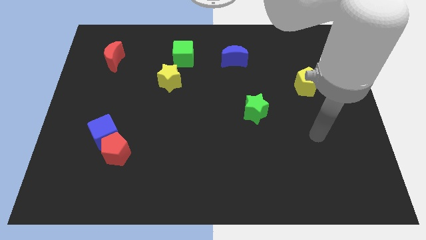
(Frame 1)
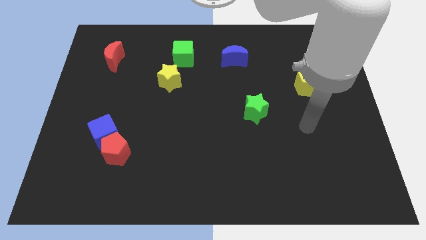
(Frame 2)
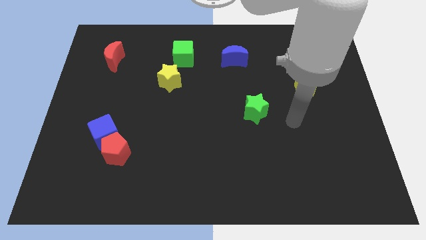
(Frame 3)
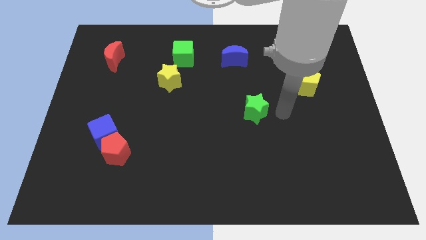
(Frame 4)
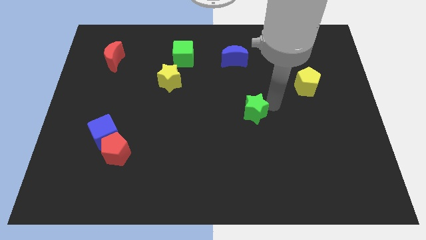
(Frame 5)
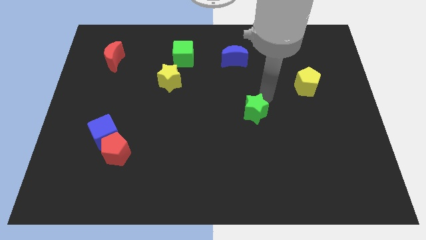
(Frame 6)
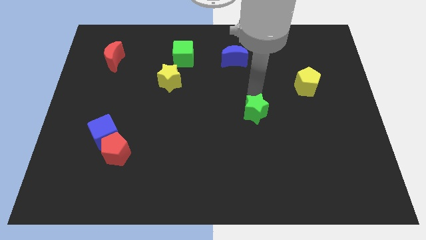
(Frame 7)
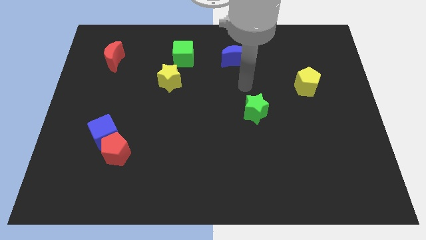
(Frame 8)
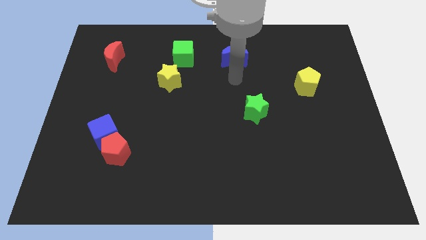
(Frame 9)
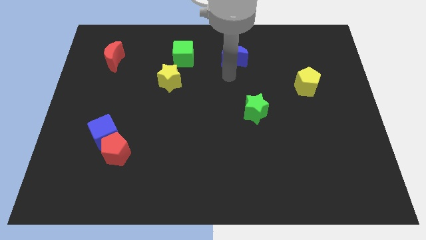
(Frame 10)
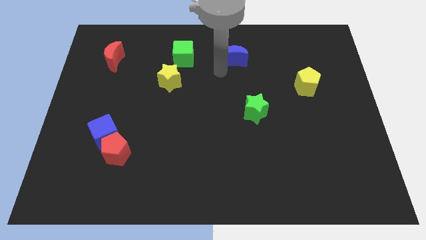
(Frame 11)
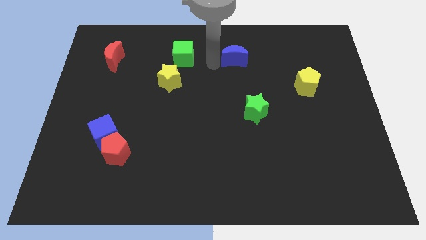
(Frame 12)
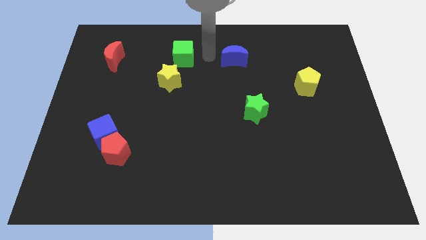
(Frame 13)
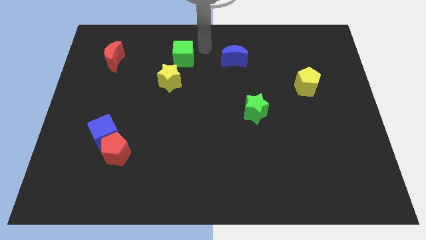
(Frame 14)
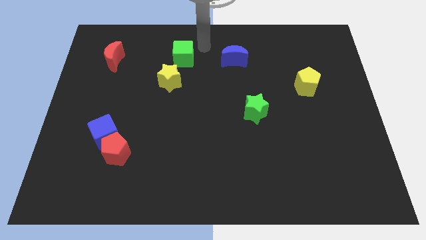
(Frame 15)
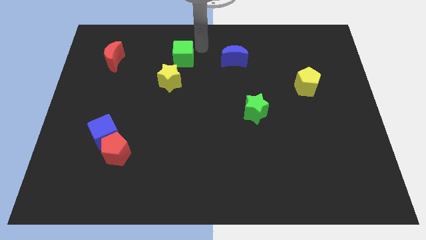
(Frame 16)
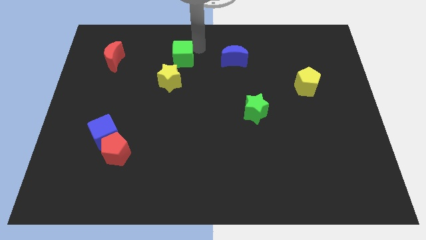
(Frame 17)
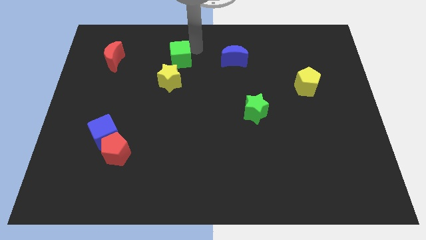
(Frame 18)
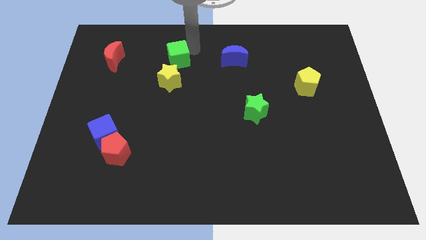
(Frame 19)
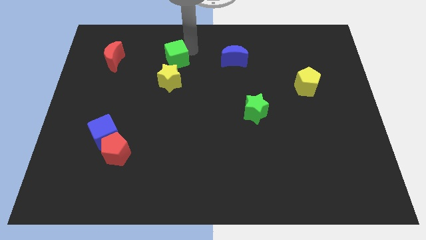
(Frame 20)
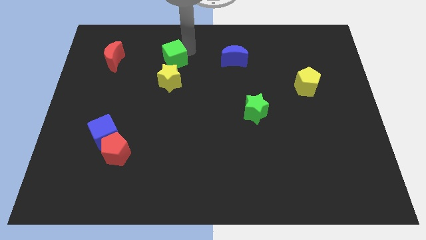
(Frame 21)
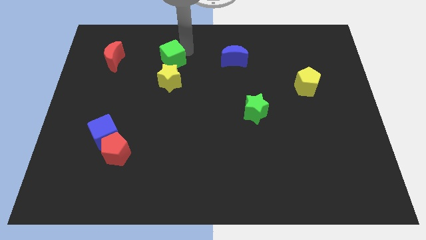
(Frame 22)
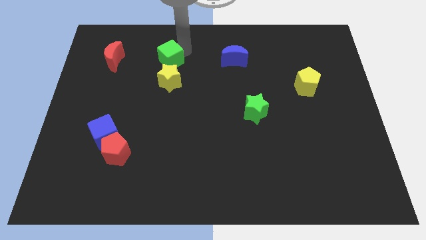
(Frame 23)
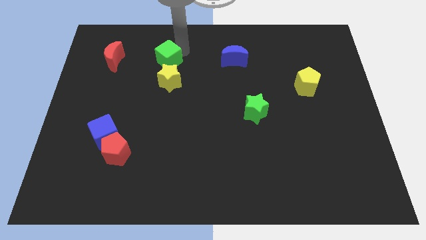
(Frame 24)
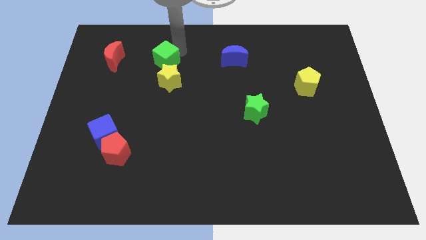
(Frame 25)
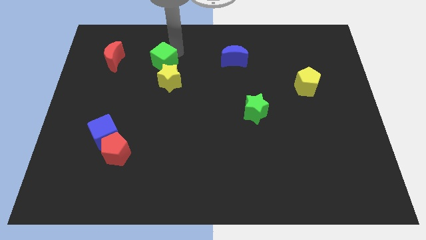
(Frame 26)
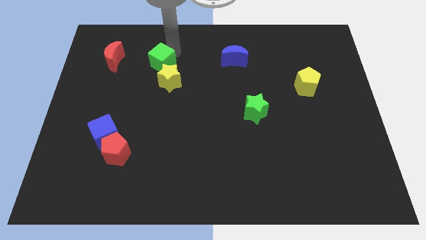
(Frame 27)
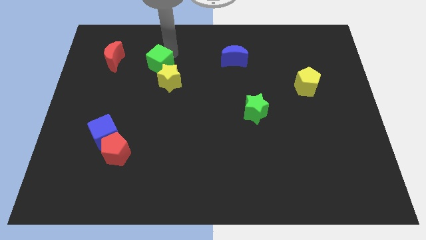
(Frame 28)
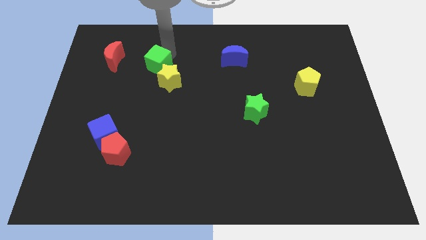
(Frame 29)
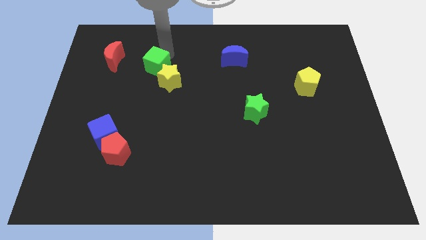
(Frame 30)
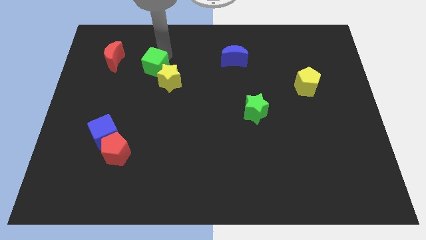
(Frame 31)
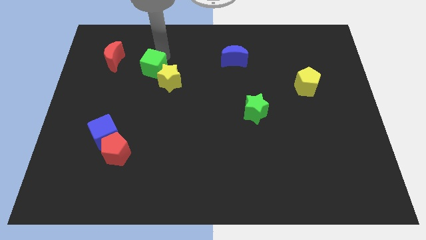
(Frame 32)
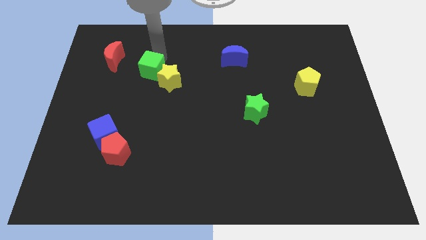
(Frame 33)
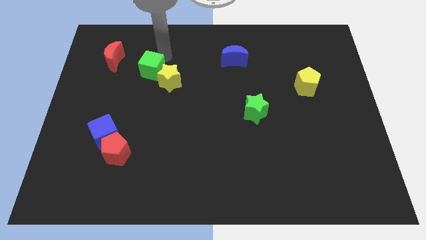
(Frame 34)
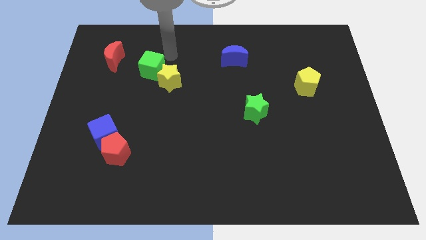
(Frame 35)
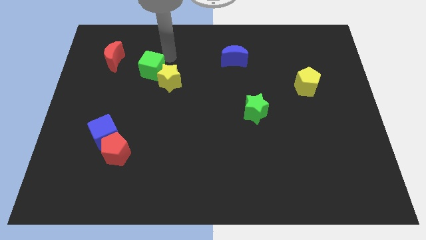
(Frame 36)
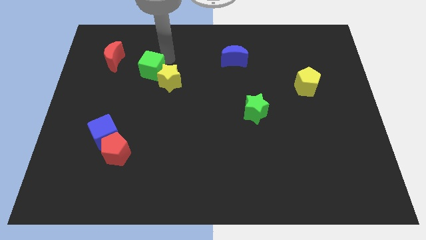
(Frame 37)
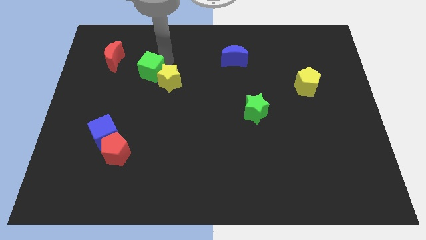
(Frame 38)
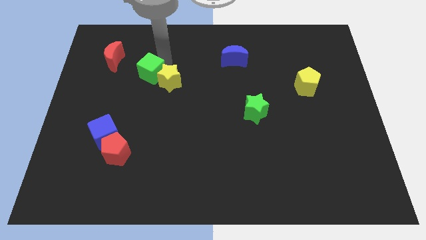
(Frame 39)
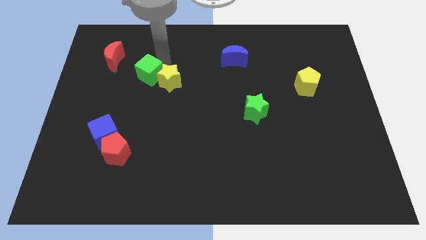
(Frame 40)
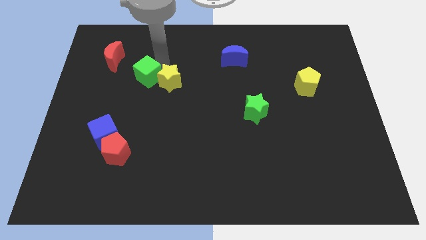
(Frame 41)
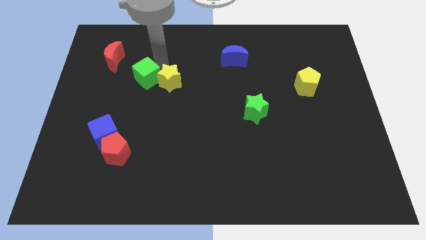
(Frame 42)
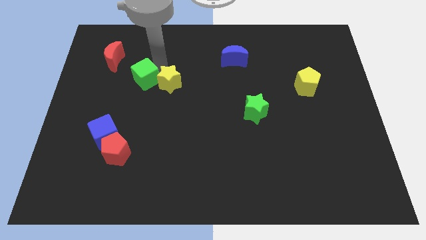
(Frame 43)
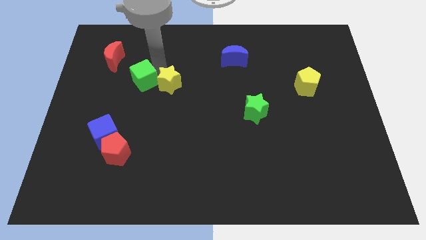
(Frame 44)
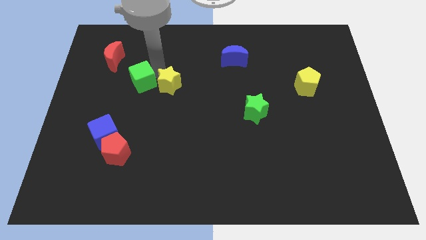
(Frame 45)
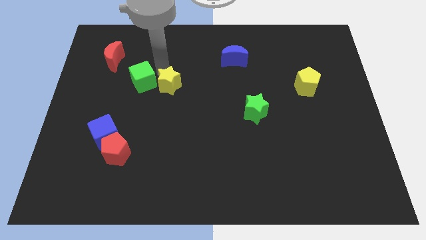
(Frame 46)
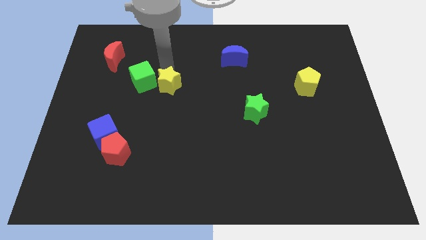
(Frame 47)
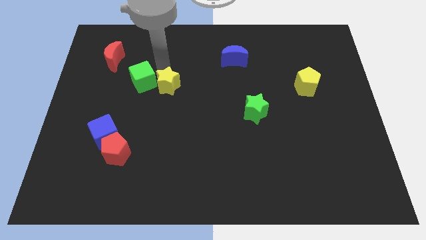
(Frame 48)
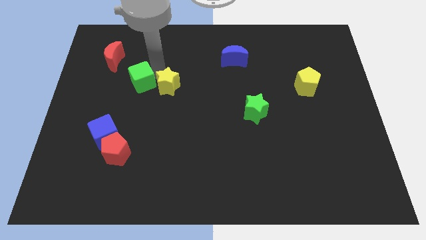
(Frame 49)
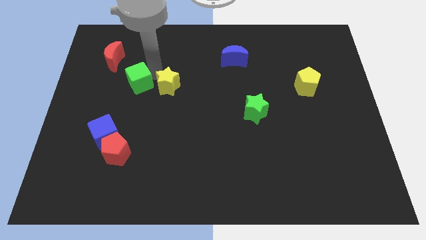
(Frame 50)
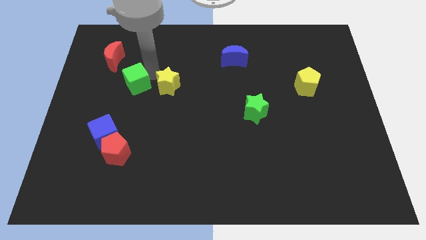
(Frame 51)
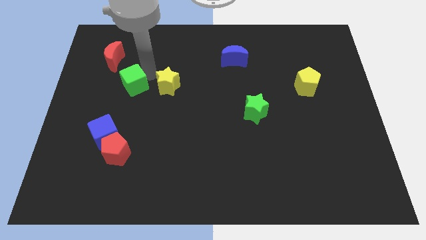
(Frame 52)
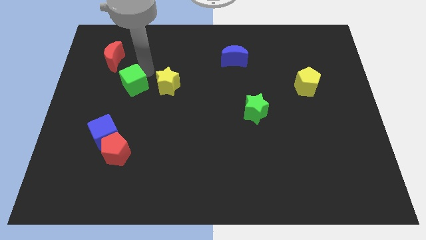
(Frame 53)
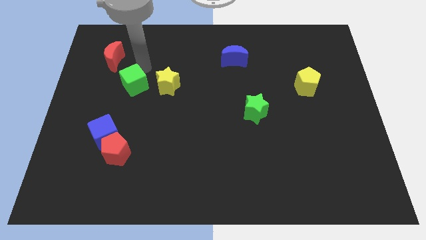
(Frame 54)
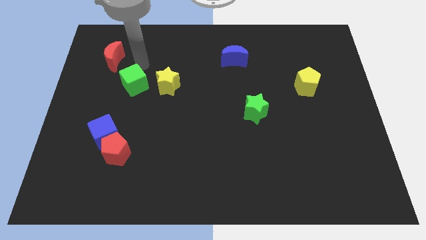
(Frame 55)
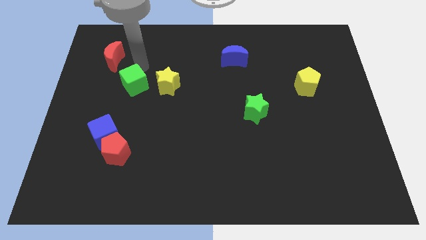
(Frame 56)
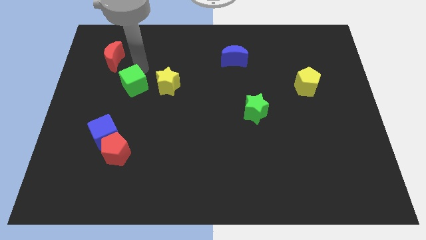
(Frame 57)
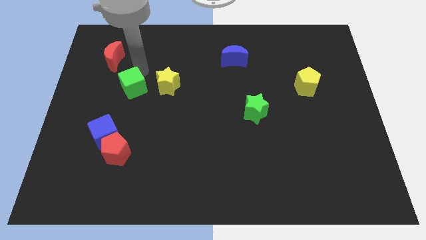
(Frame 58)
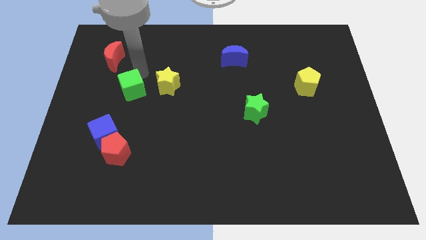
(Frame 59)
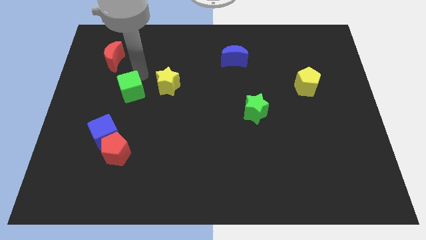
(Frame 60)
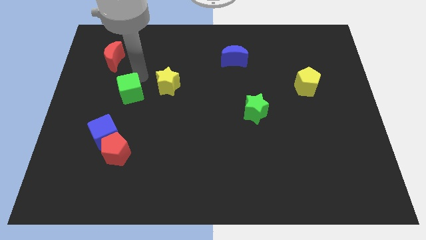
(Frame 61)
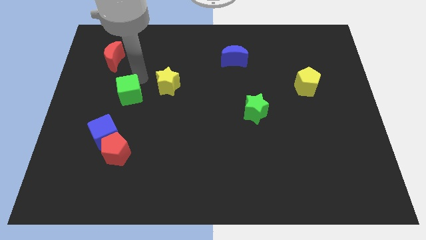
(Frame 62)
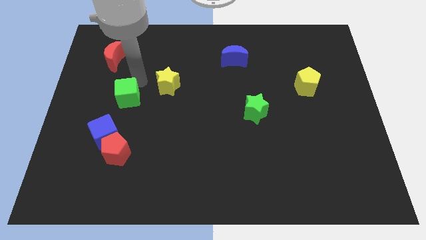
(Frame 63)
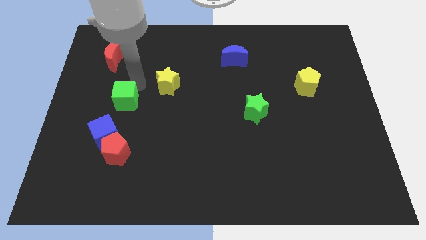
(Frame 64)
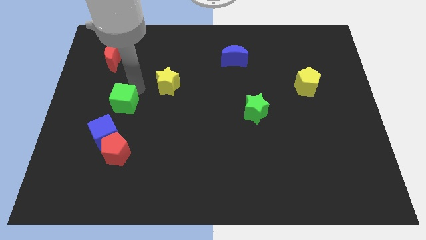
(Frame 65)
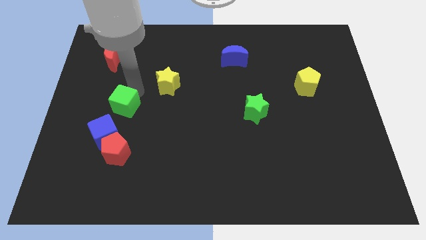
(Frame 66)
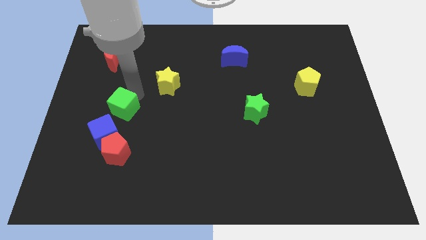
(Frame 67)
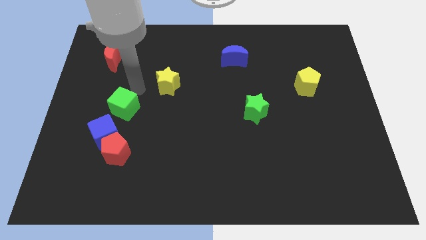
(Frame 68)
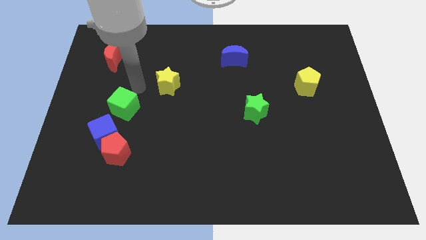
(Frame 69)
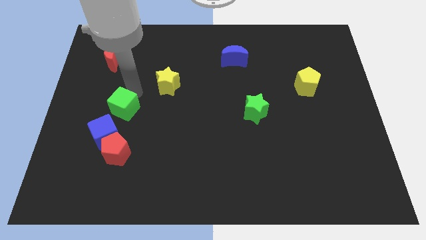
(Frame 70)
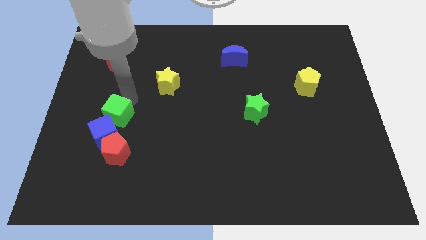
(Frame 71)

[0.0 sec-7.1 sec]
move the green cube to the blue cube
